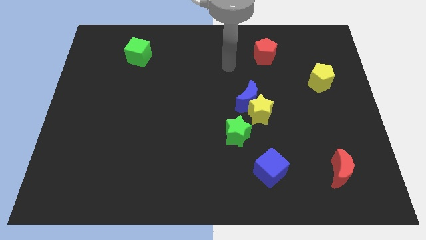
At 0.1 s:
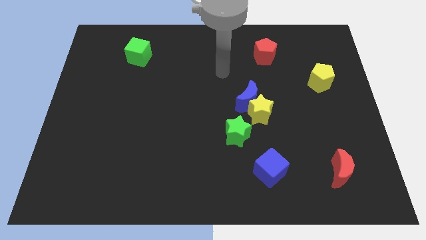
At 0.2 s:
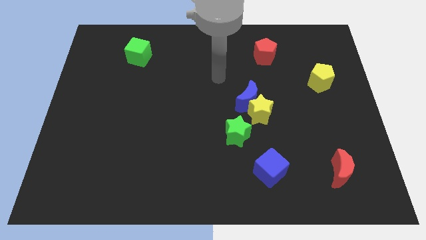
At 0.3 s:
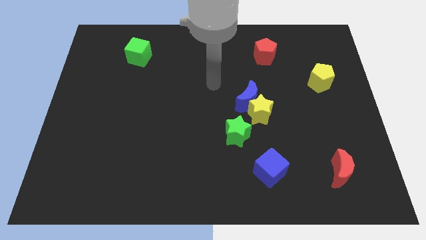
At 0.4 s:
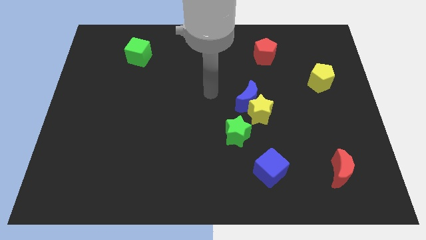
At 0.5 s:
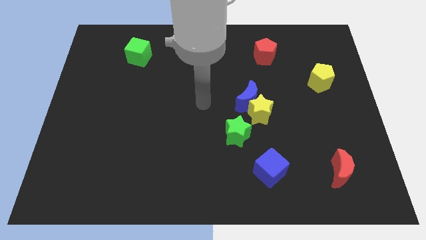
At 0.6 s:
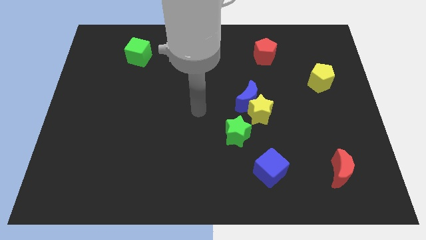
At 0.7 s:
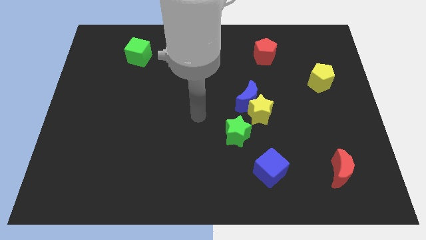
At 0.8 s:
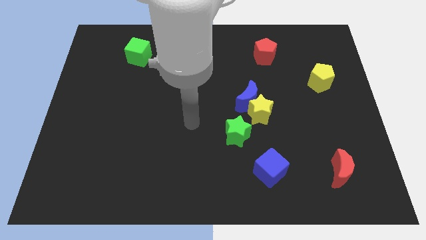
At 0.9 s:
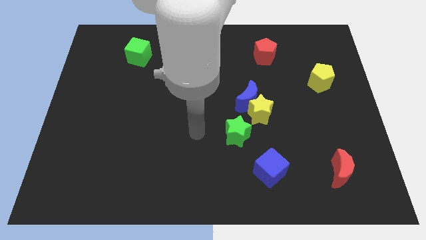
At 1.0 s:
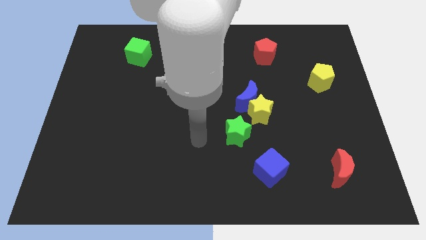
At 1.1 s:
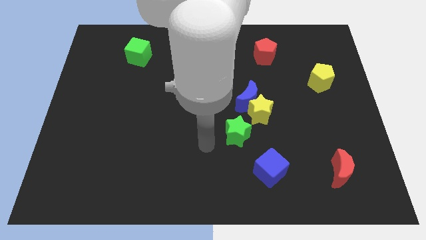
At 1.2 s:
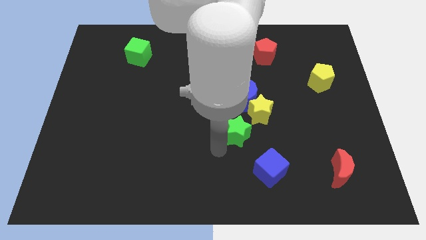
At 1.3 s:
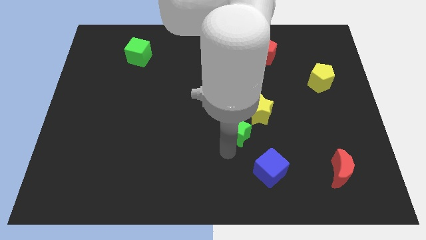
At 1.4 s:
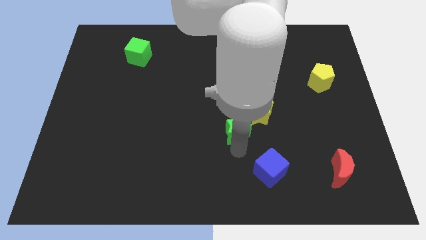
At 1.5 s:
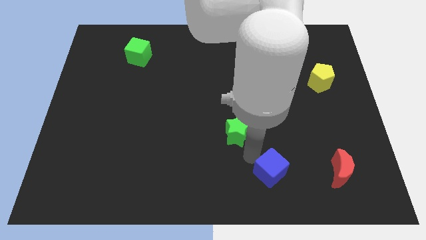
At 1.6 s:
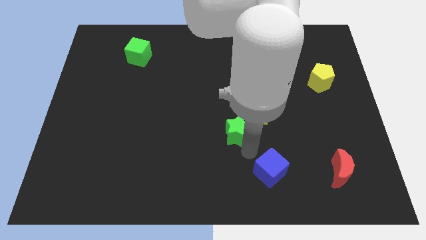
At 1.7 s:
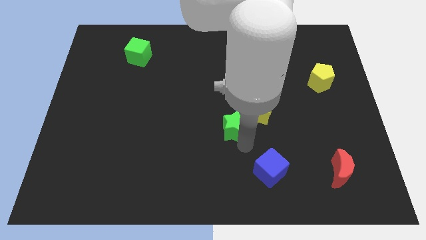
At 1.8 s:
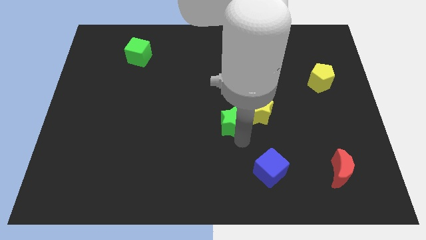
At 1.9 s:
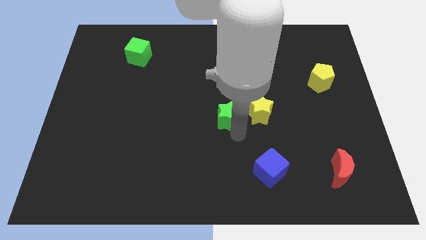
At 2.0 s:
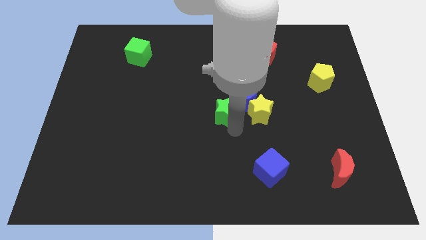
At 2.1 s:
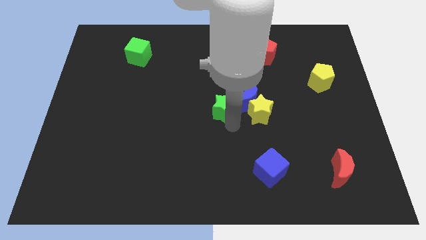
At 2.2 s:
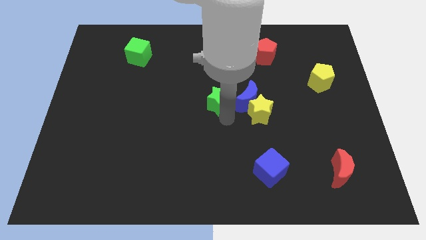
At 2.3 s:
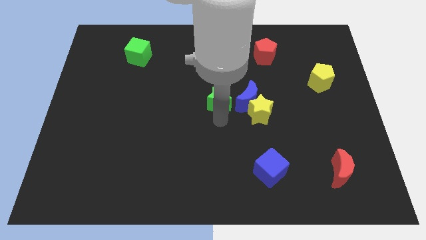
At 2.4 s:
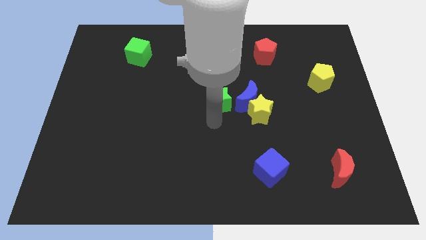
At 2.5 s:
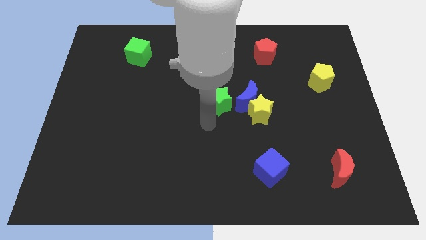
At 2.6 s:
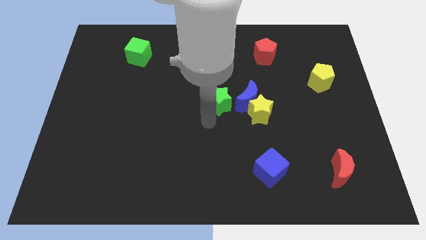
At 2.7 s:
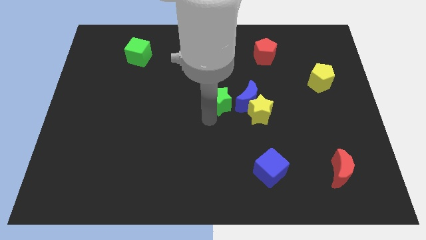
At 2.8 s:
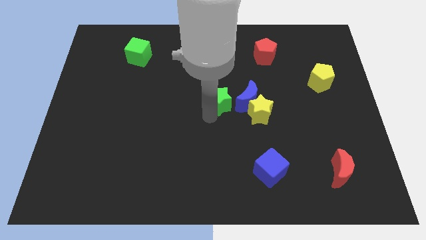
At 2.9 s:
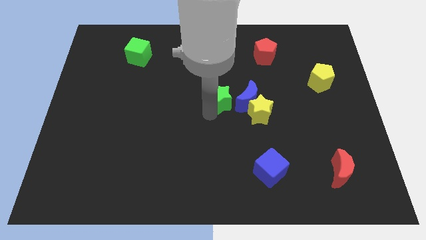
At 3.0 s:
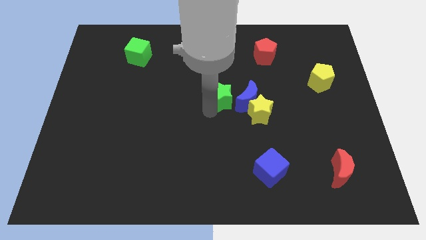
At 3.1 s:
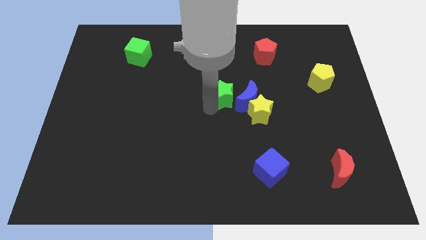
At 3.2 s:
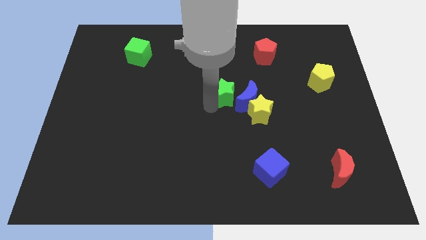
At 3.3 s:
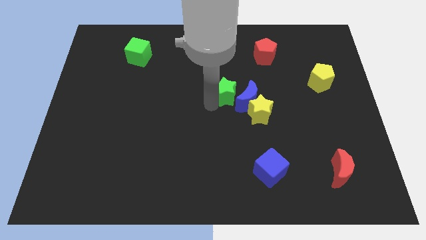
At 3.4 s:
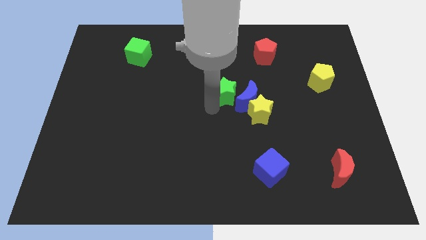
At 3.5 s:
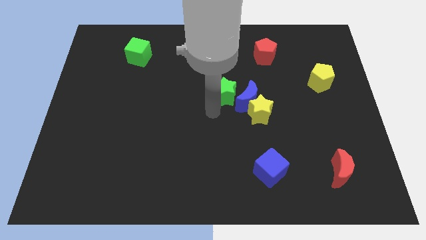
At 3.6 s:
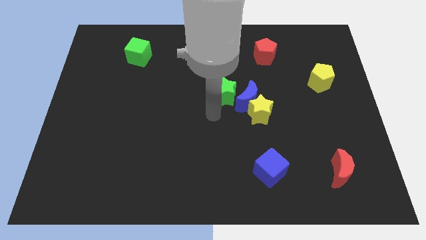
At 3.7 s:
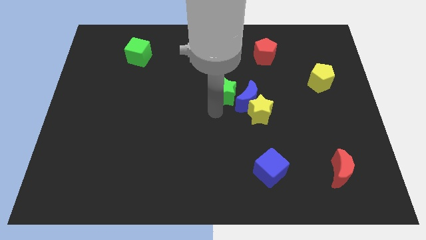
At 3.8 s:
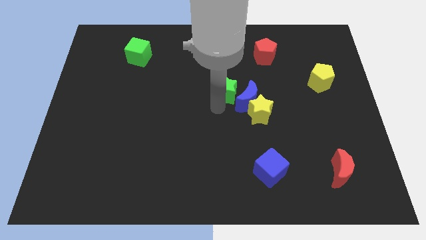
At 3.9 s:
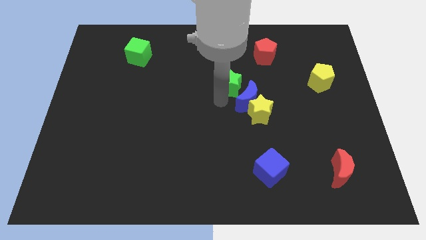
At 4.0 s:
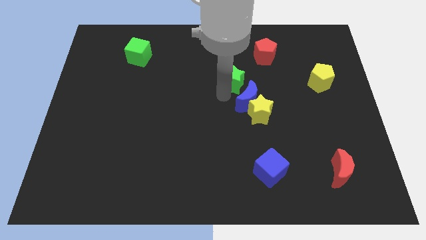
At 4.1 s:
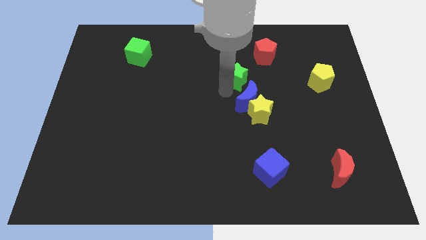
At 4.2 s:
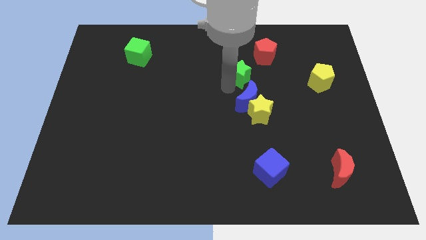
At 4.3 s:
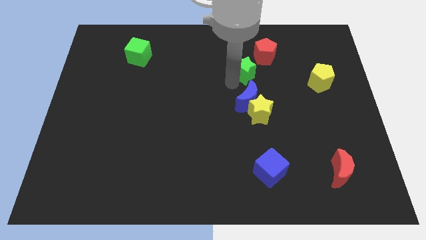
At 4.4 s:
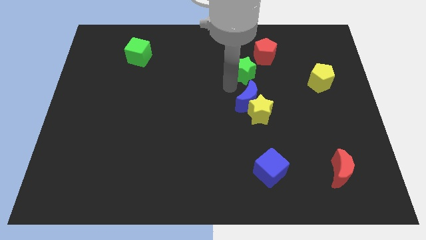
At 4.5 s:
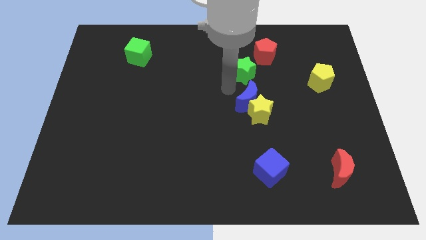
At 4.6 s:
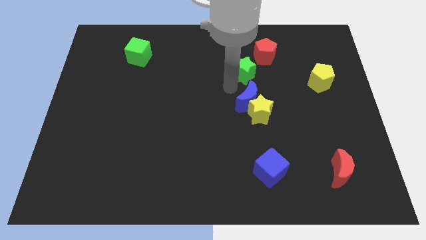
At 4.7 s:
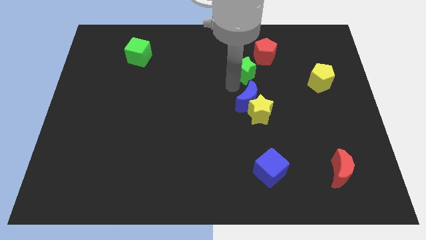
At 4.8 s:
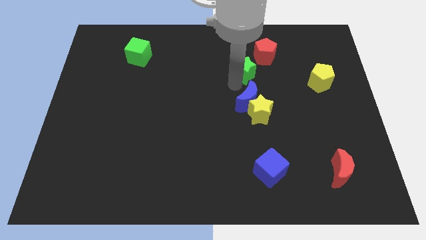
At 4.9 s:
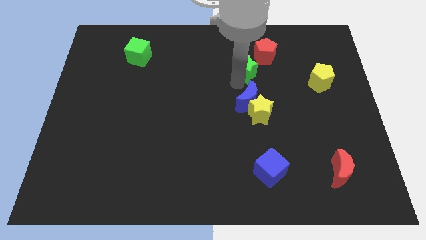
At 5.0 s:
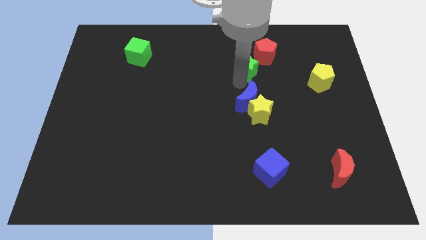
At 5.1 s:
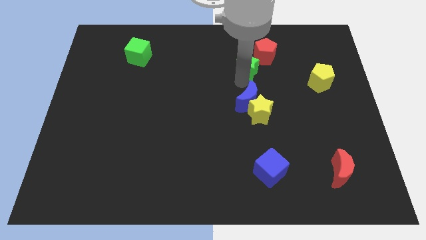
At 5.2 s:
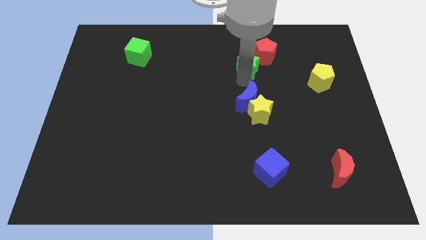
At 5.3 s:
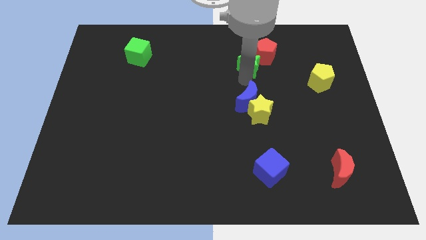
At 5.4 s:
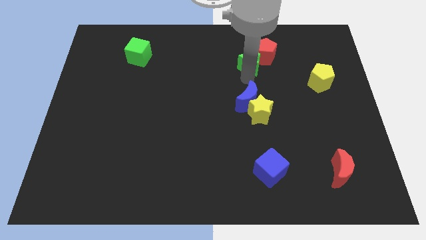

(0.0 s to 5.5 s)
slide the green star towards the red pentagon

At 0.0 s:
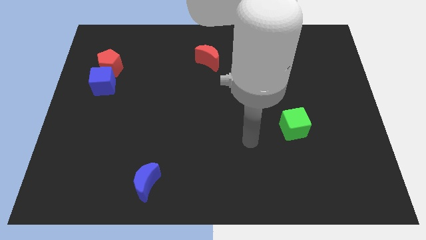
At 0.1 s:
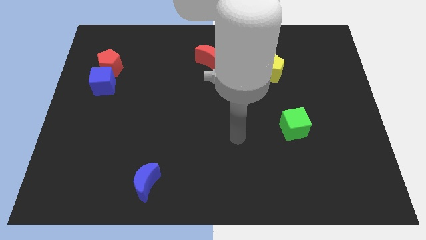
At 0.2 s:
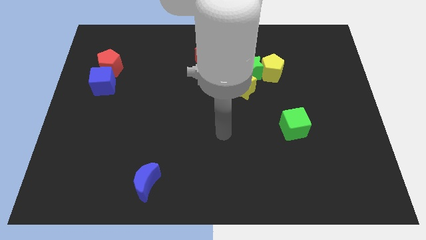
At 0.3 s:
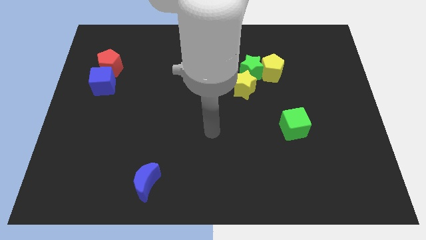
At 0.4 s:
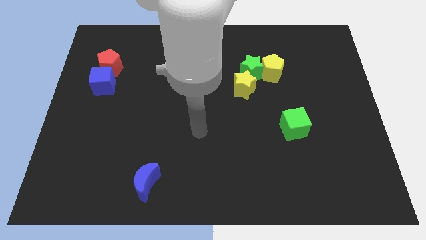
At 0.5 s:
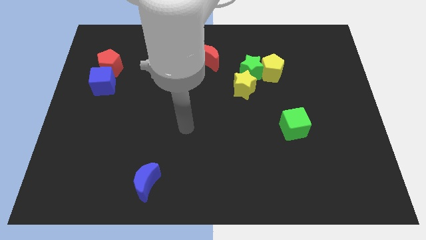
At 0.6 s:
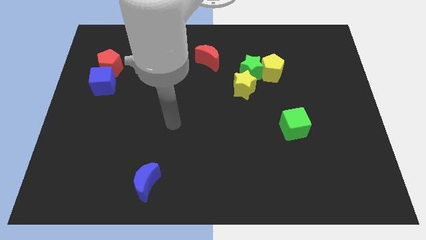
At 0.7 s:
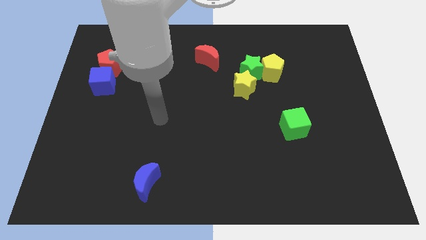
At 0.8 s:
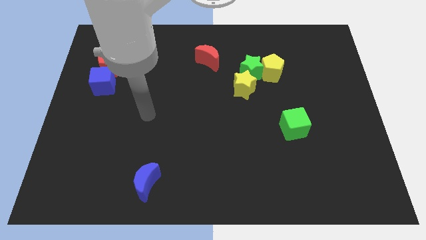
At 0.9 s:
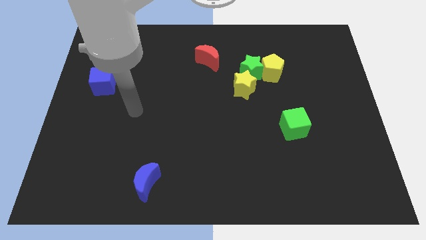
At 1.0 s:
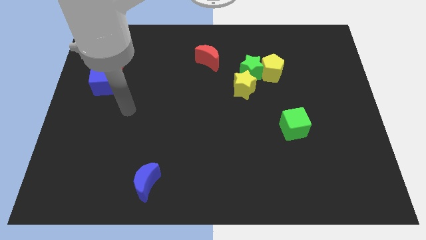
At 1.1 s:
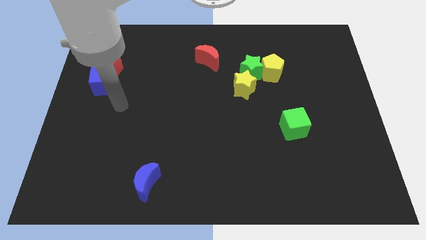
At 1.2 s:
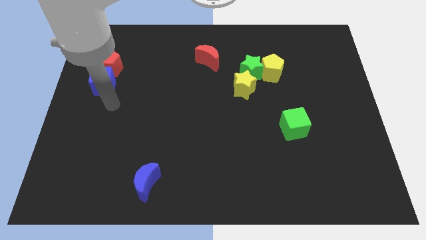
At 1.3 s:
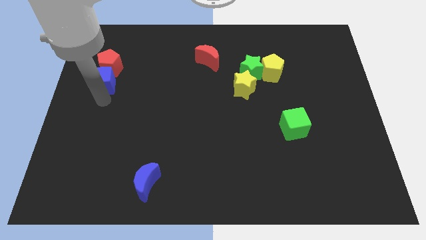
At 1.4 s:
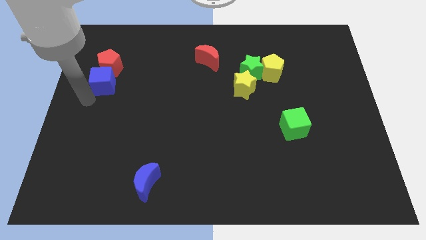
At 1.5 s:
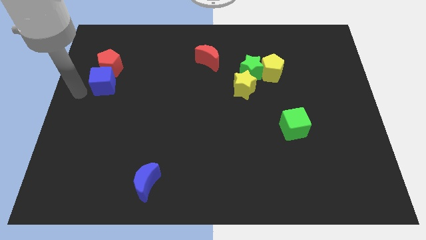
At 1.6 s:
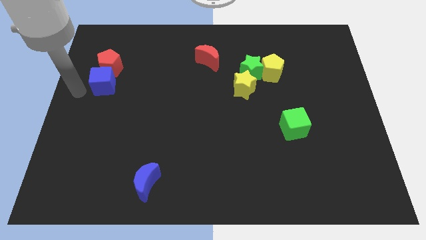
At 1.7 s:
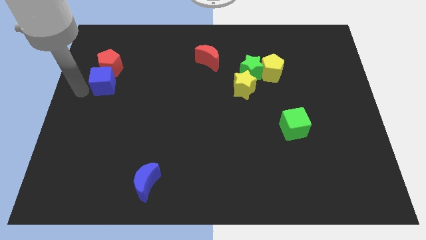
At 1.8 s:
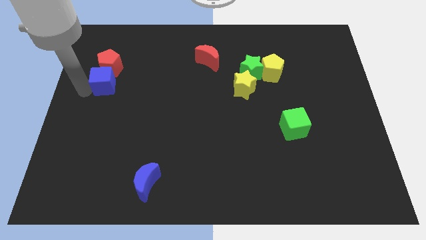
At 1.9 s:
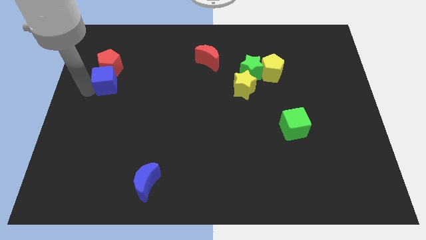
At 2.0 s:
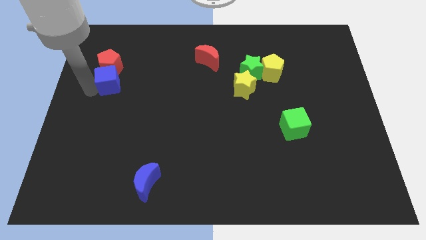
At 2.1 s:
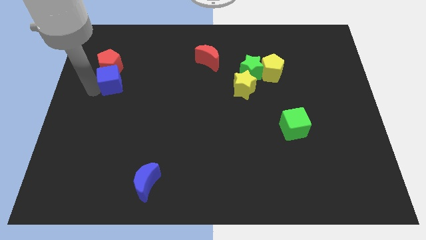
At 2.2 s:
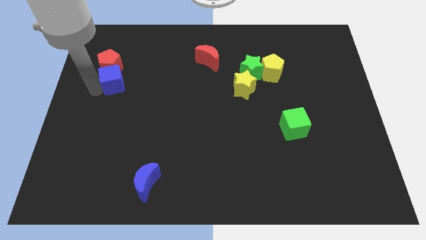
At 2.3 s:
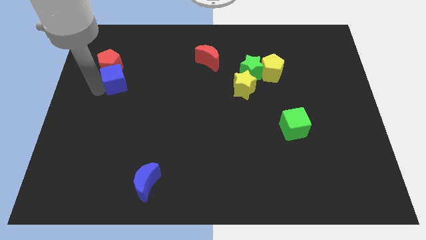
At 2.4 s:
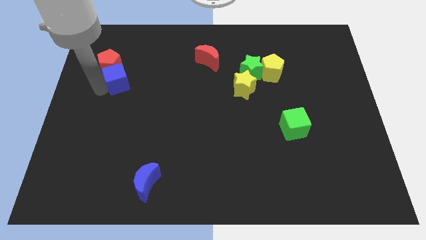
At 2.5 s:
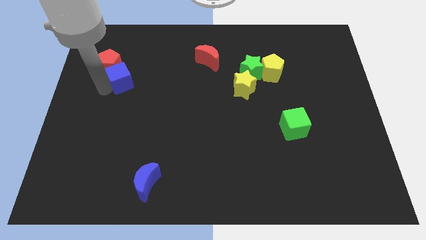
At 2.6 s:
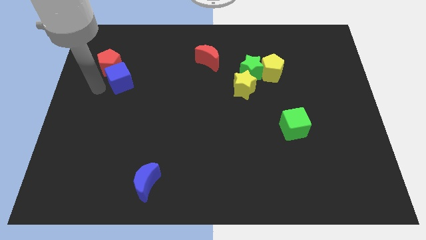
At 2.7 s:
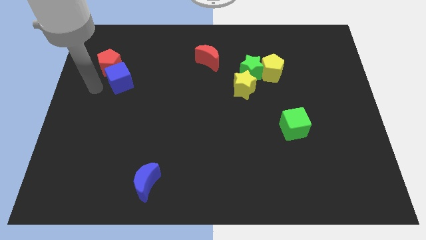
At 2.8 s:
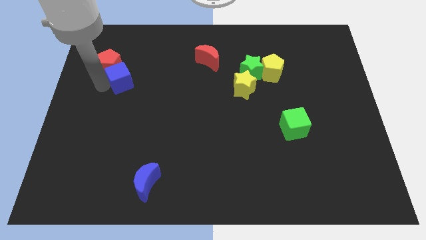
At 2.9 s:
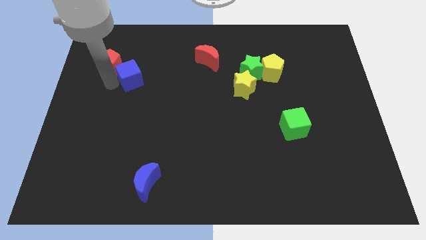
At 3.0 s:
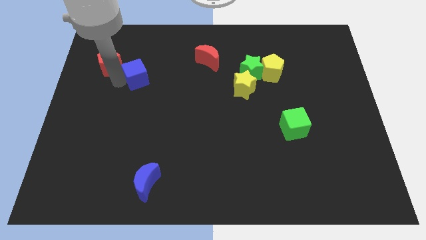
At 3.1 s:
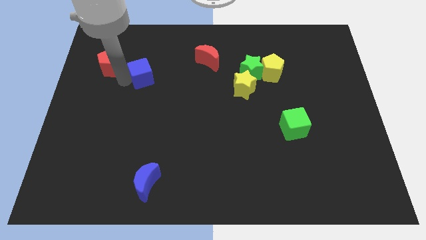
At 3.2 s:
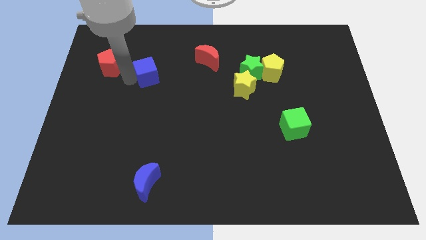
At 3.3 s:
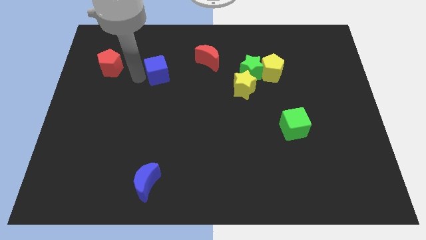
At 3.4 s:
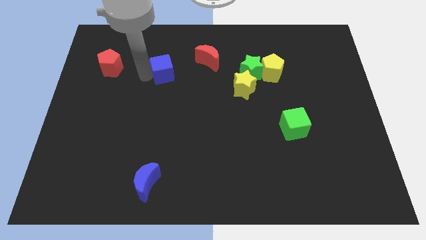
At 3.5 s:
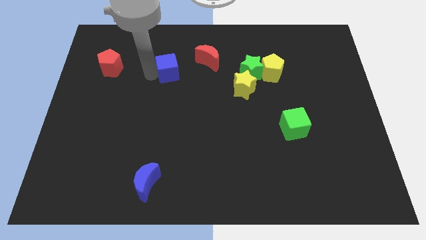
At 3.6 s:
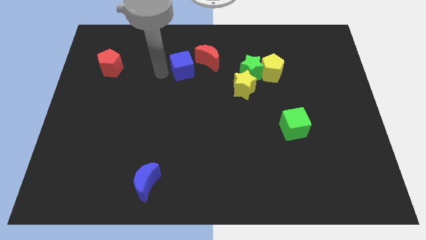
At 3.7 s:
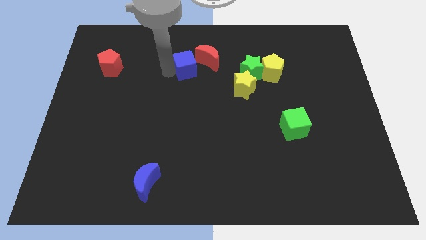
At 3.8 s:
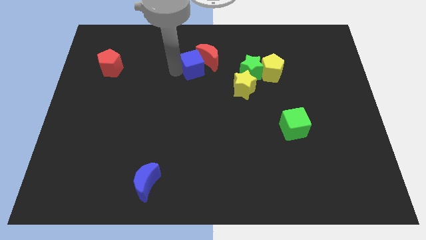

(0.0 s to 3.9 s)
move the blue cube towards the red moon
